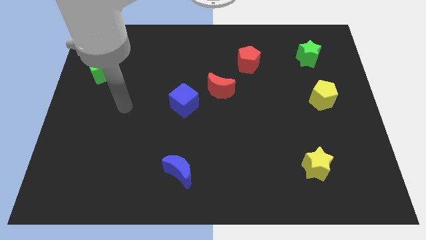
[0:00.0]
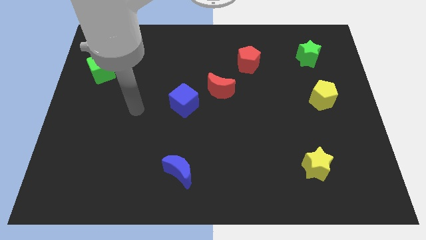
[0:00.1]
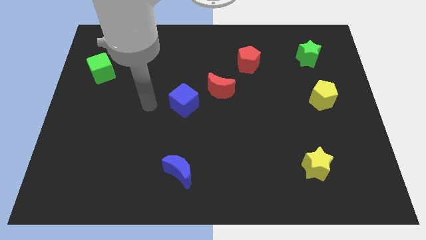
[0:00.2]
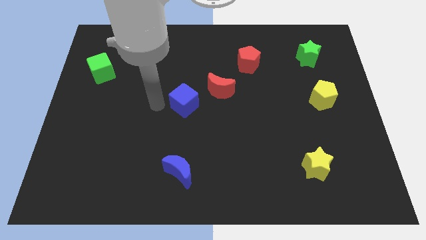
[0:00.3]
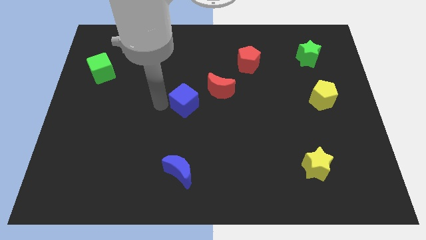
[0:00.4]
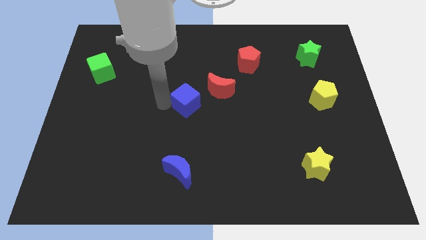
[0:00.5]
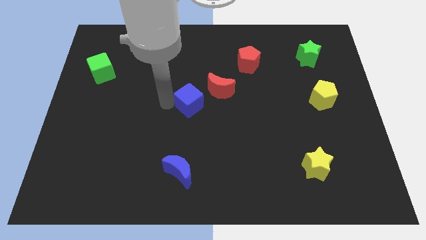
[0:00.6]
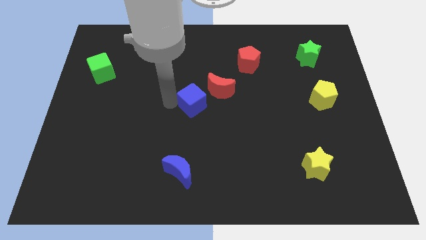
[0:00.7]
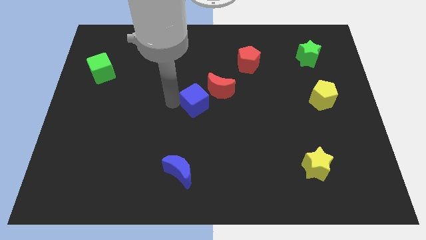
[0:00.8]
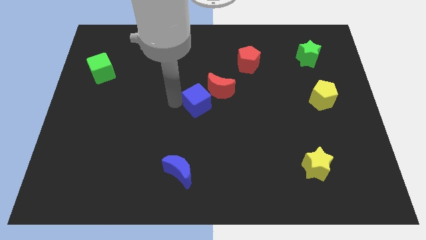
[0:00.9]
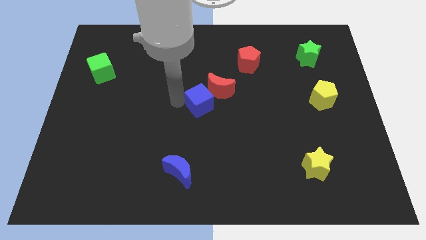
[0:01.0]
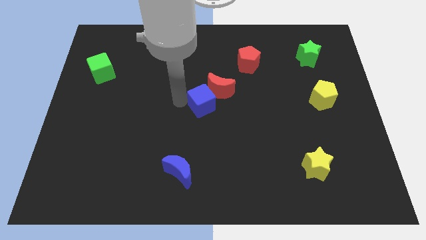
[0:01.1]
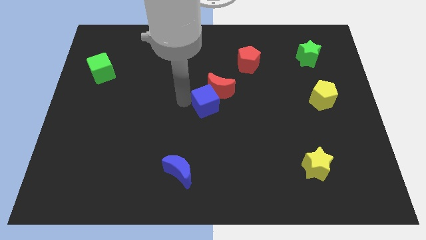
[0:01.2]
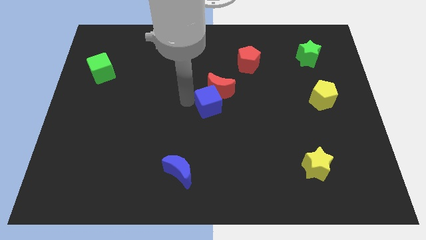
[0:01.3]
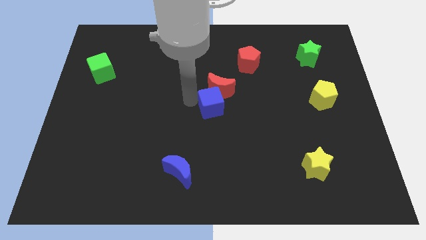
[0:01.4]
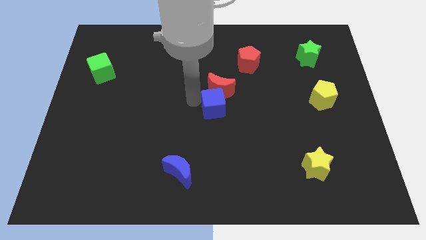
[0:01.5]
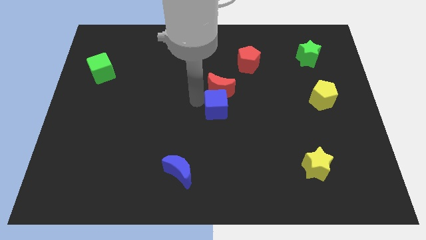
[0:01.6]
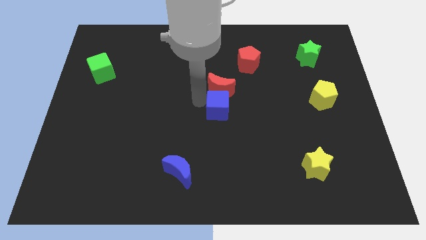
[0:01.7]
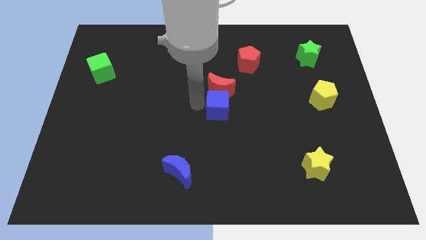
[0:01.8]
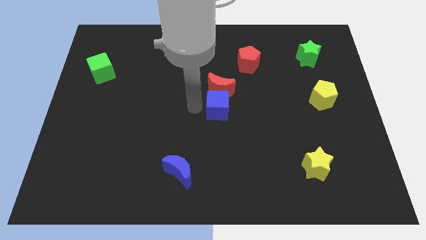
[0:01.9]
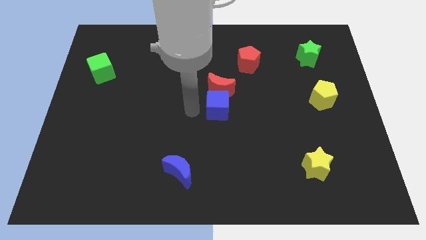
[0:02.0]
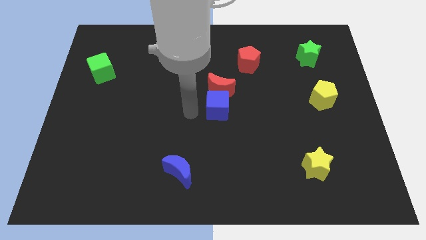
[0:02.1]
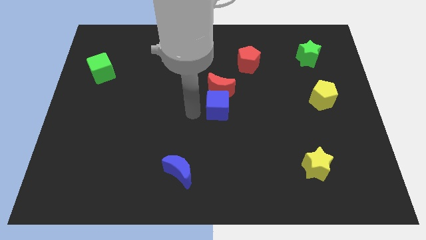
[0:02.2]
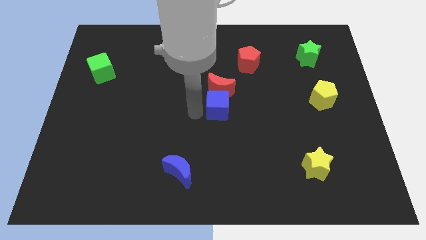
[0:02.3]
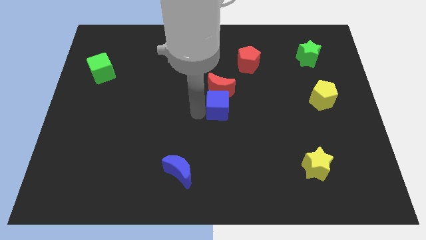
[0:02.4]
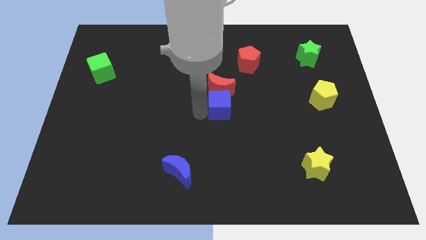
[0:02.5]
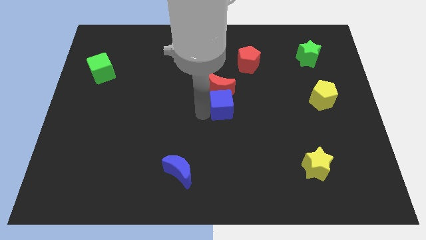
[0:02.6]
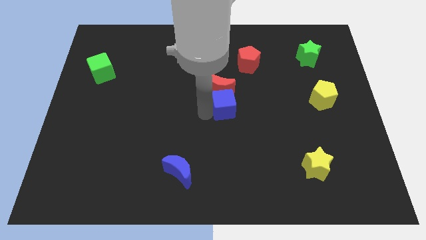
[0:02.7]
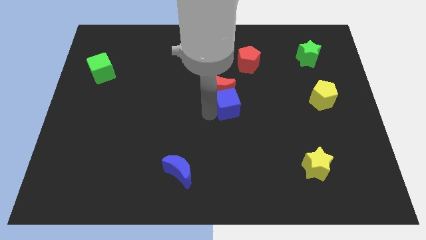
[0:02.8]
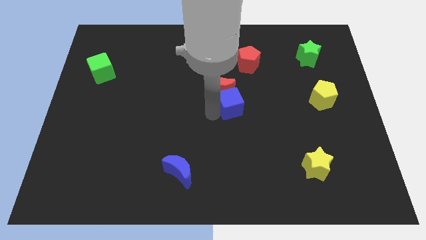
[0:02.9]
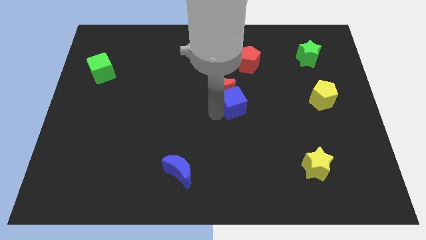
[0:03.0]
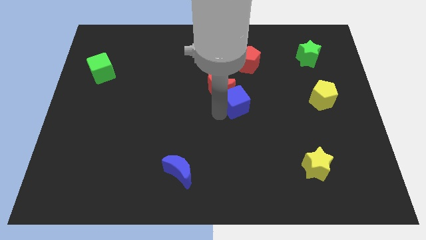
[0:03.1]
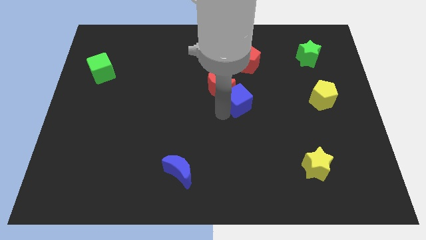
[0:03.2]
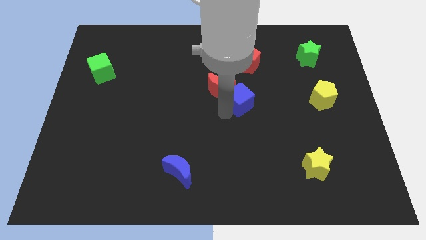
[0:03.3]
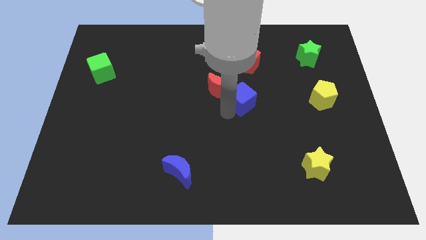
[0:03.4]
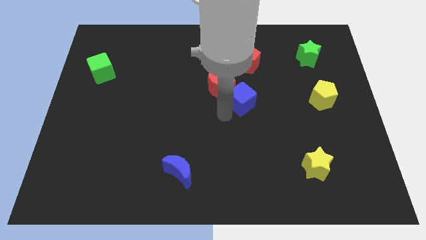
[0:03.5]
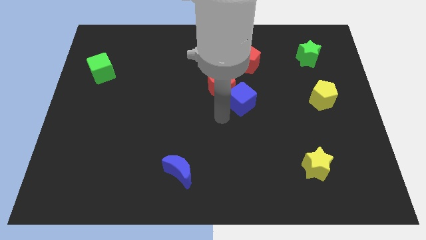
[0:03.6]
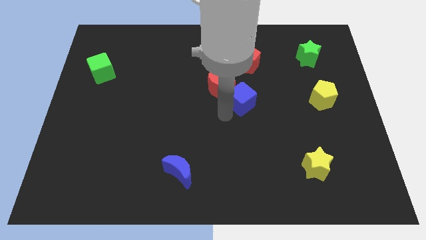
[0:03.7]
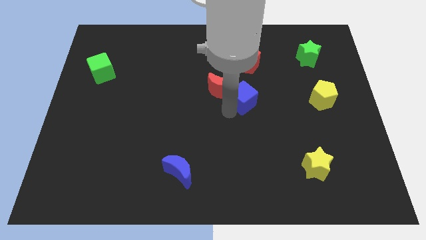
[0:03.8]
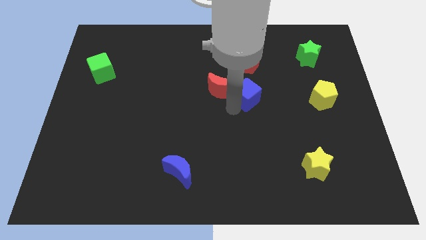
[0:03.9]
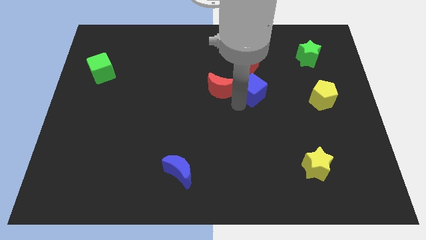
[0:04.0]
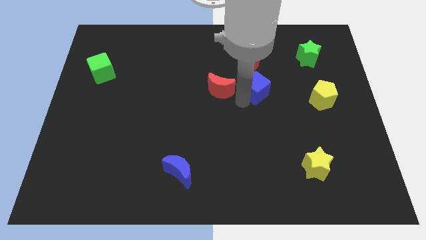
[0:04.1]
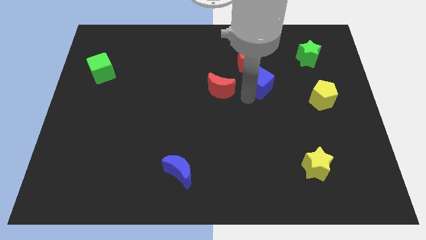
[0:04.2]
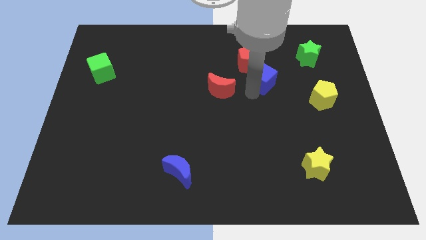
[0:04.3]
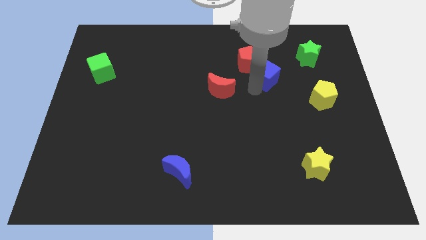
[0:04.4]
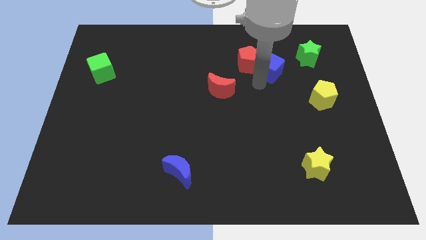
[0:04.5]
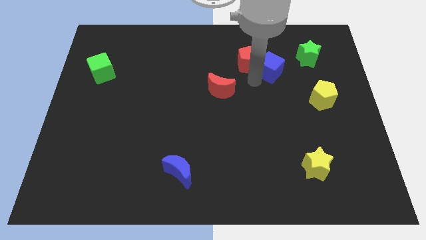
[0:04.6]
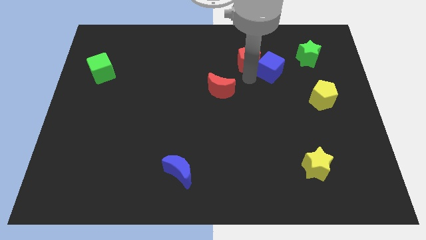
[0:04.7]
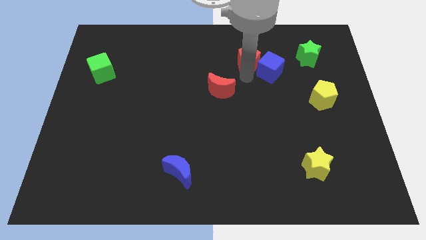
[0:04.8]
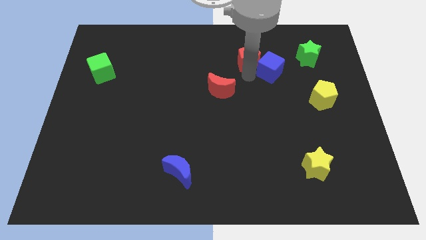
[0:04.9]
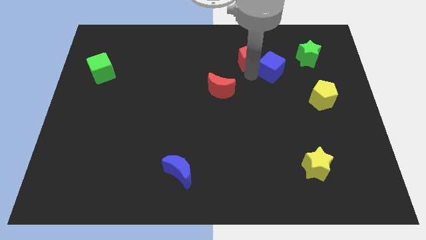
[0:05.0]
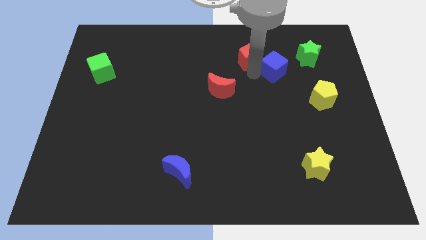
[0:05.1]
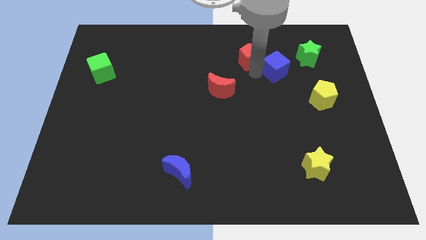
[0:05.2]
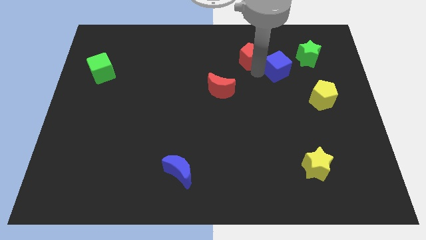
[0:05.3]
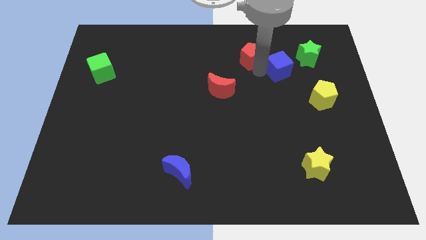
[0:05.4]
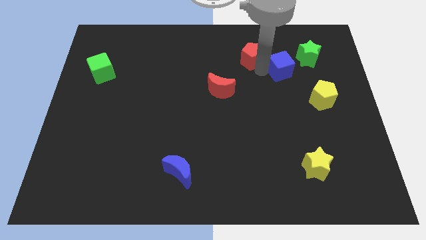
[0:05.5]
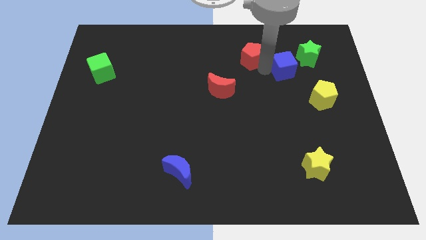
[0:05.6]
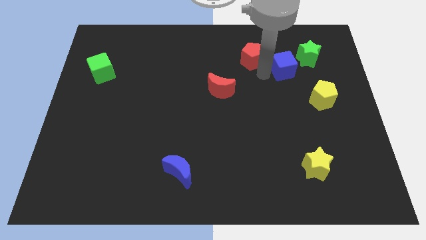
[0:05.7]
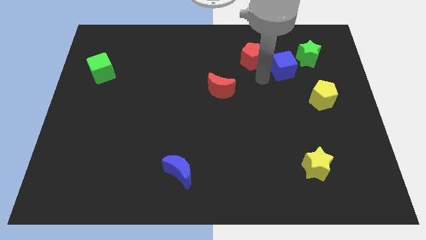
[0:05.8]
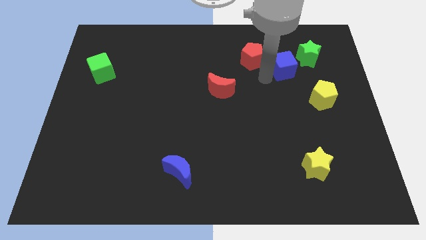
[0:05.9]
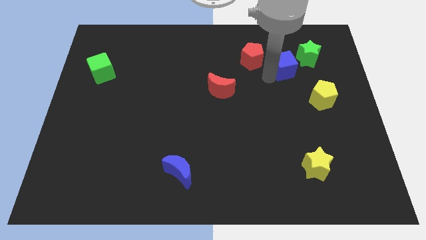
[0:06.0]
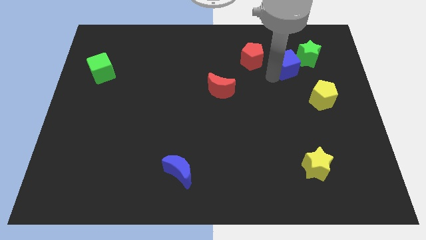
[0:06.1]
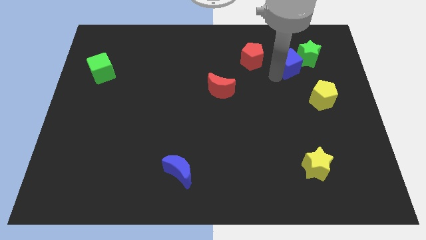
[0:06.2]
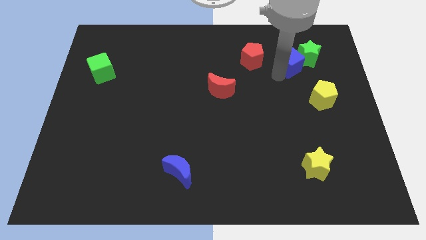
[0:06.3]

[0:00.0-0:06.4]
move the blue cube close to the green star

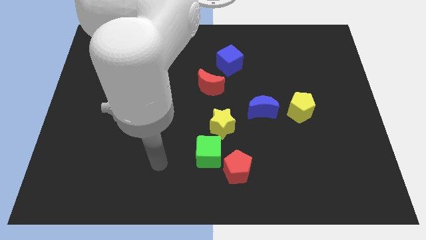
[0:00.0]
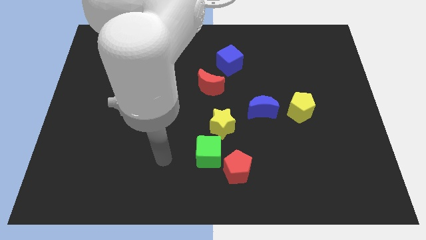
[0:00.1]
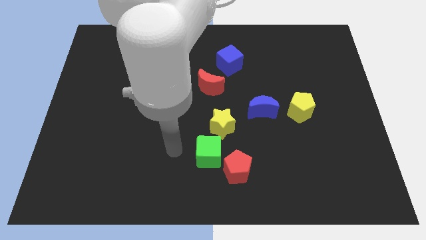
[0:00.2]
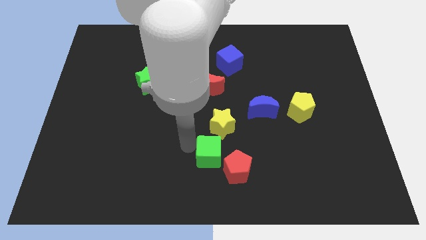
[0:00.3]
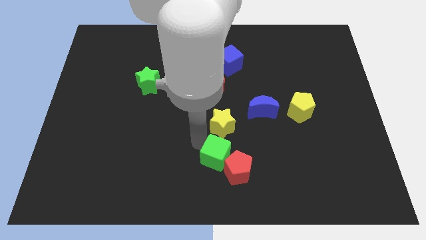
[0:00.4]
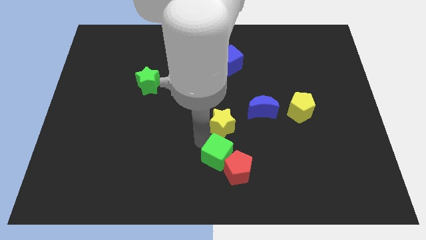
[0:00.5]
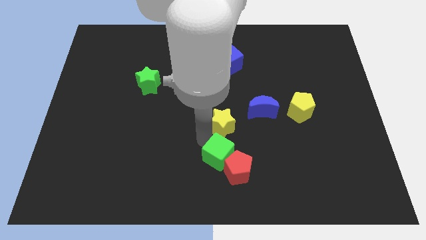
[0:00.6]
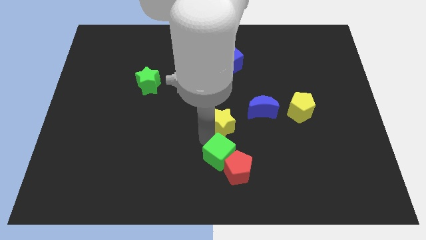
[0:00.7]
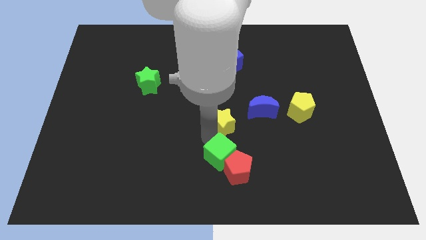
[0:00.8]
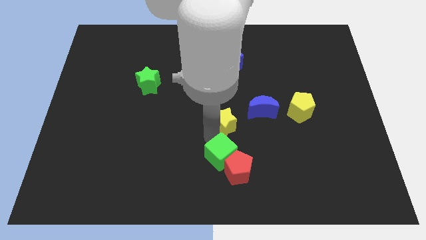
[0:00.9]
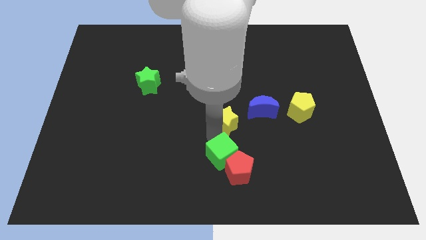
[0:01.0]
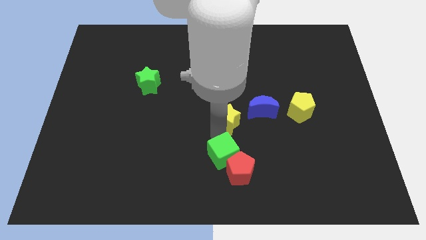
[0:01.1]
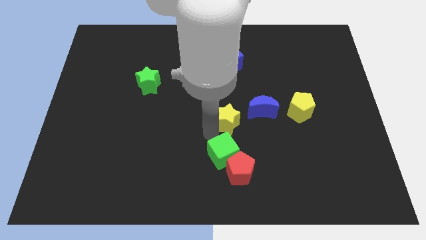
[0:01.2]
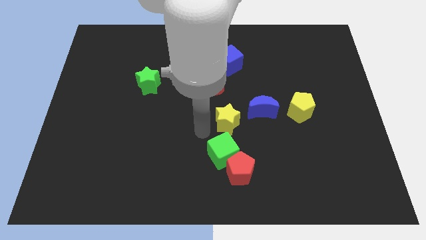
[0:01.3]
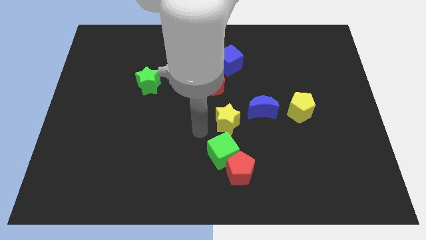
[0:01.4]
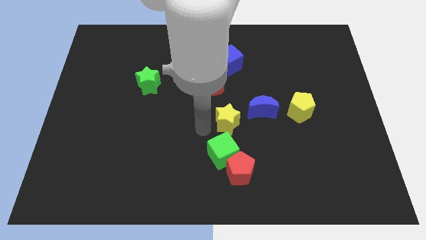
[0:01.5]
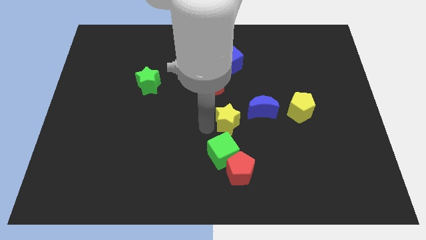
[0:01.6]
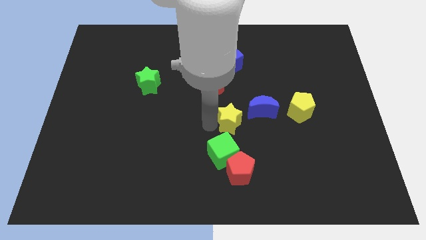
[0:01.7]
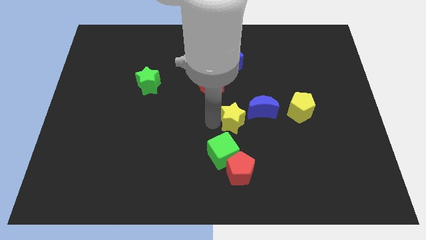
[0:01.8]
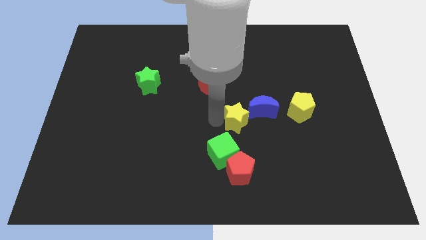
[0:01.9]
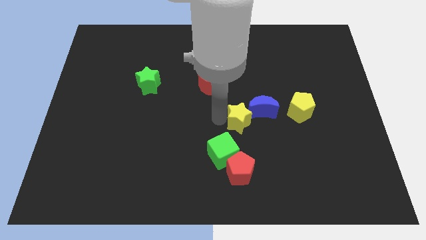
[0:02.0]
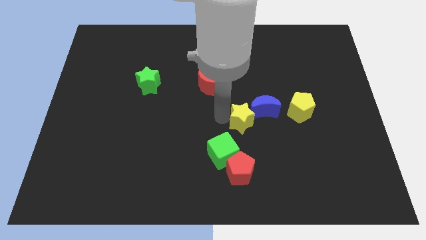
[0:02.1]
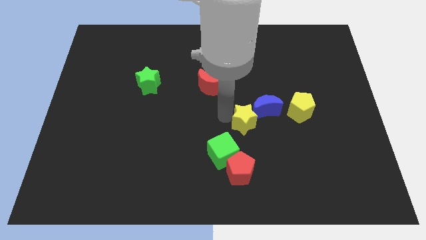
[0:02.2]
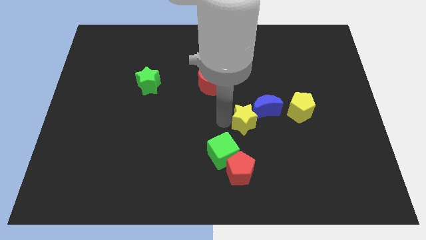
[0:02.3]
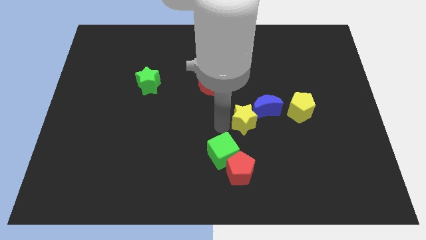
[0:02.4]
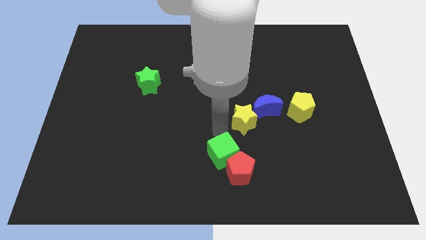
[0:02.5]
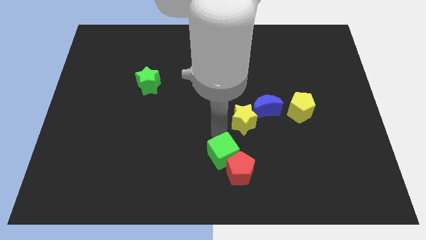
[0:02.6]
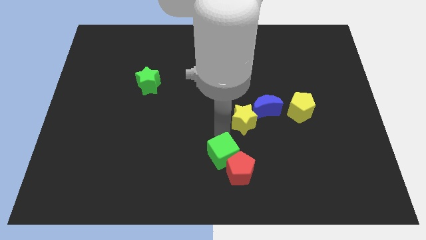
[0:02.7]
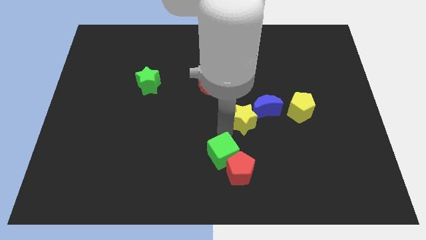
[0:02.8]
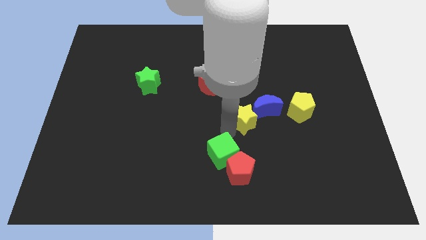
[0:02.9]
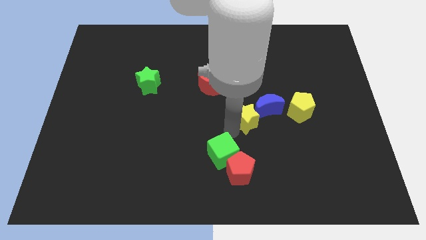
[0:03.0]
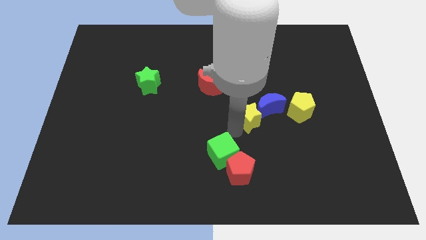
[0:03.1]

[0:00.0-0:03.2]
move the yellow star towards the blue moon
